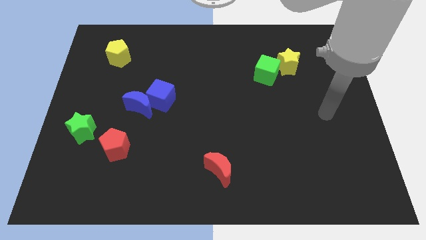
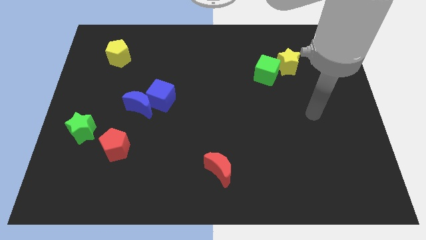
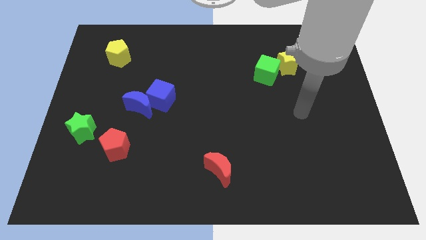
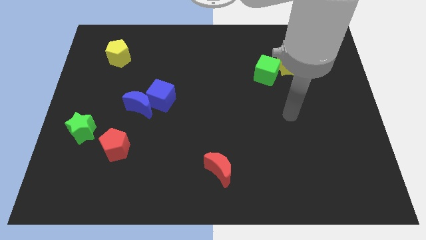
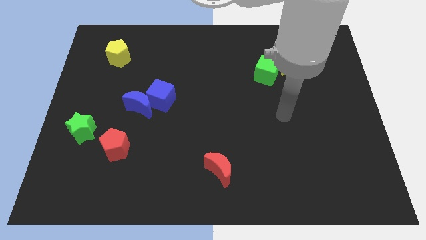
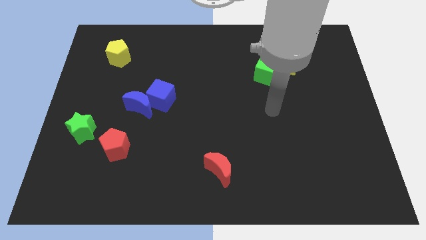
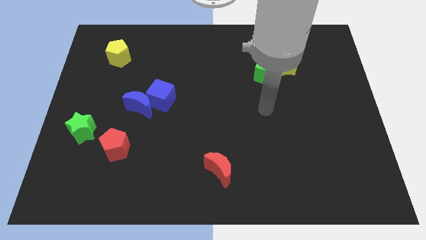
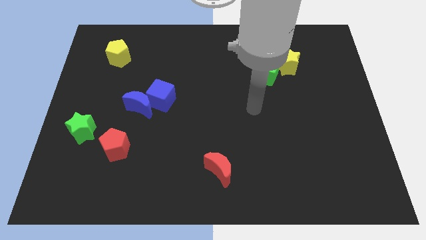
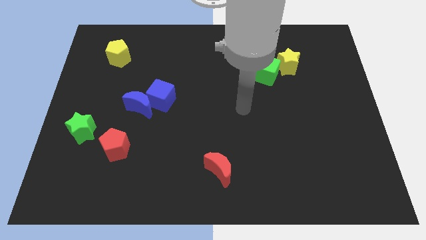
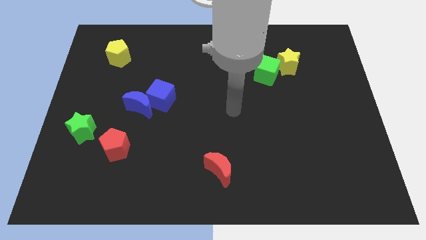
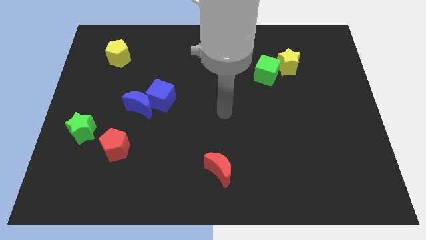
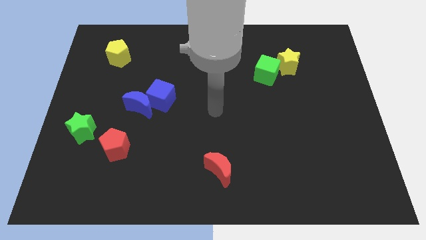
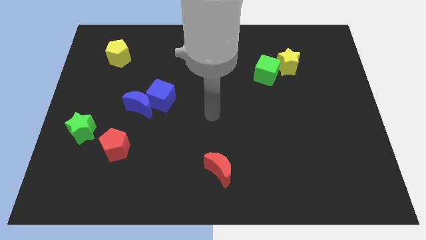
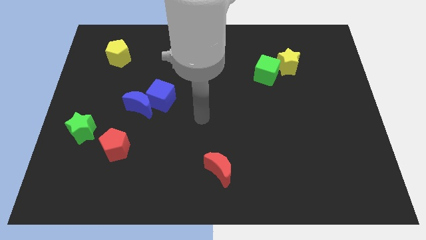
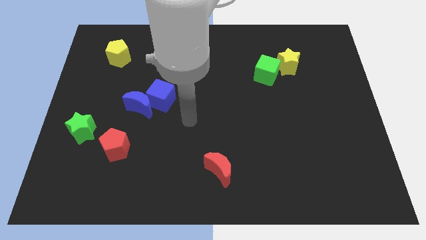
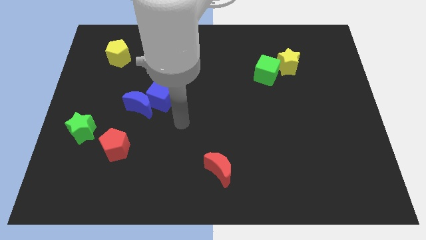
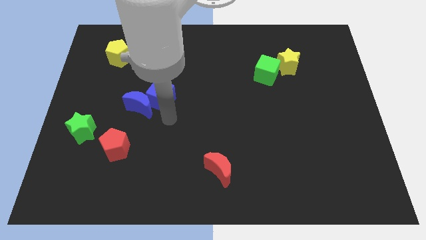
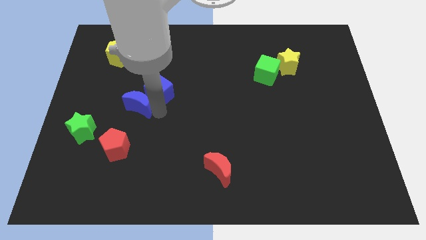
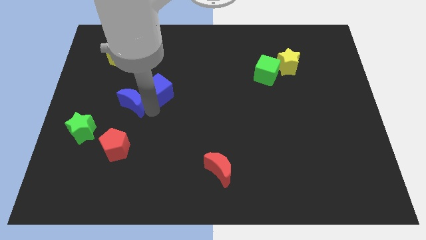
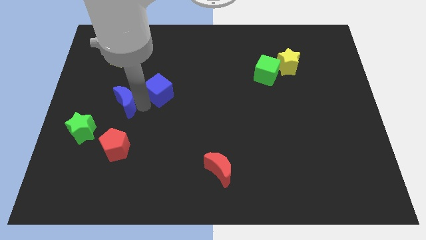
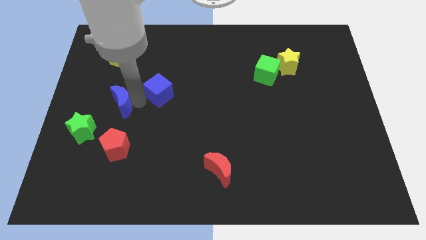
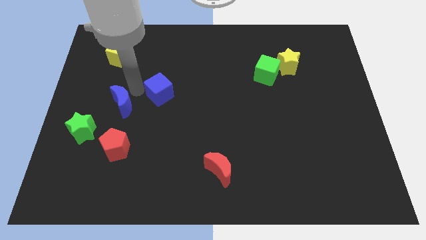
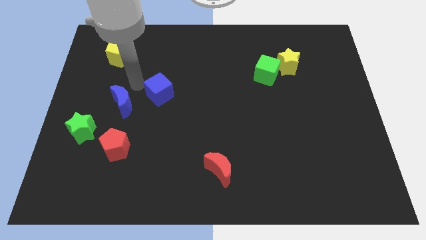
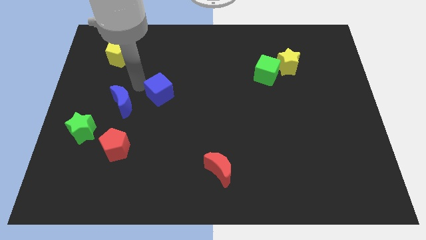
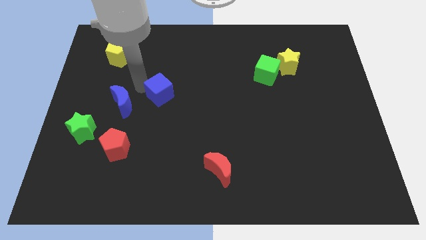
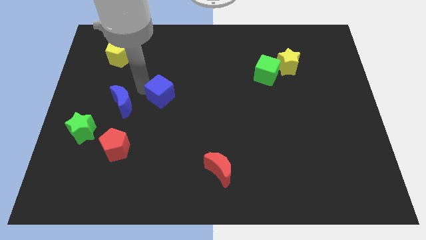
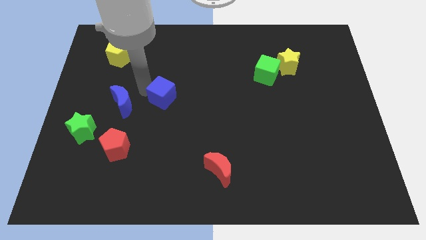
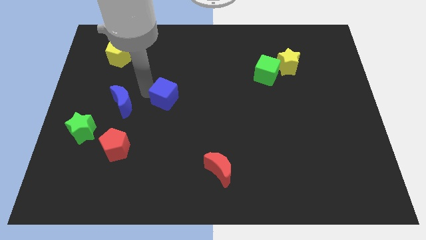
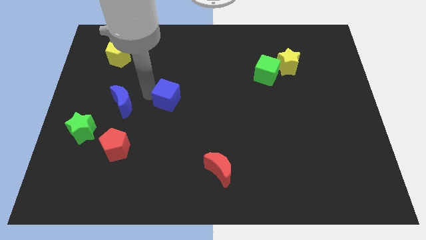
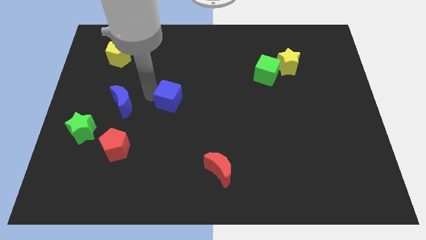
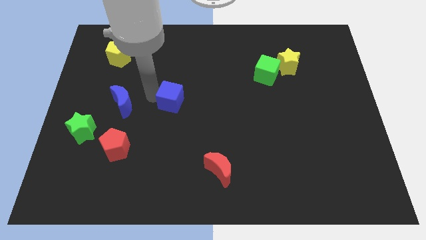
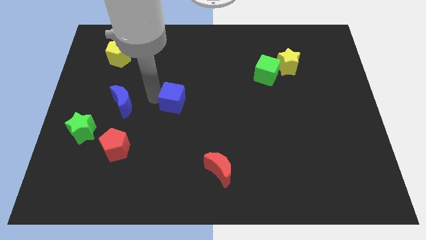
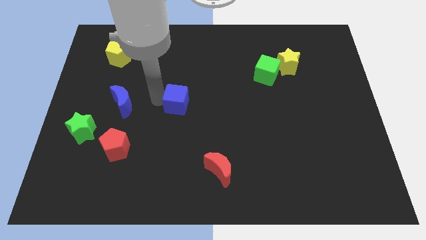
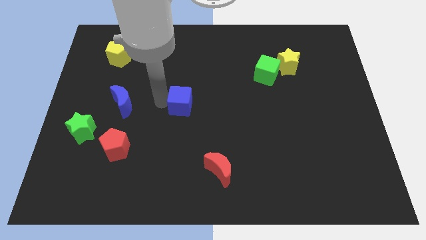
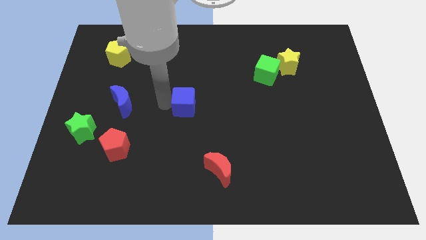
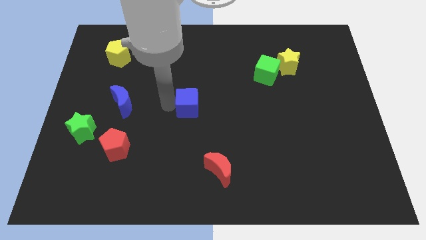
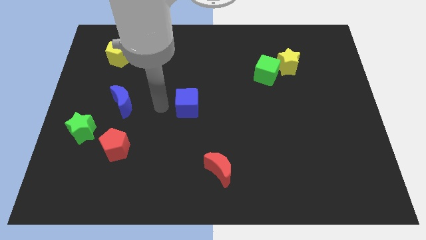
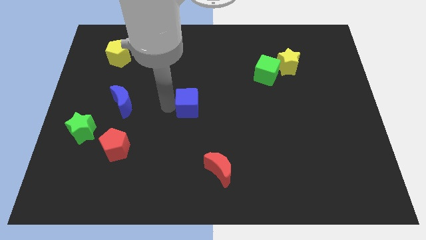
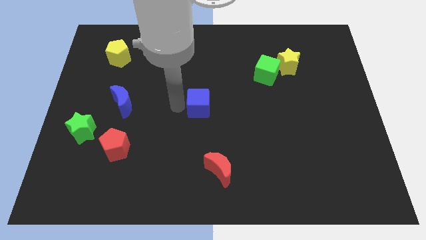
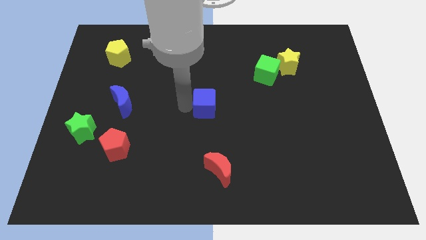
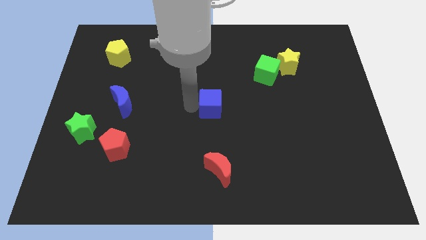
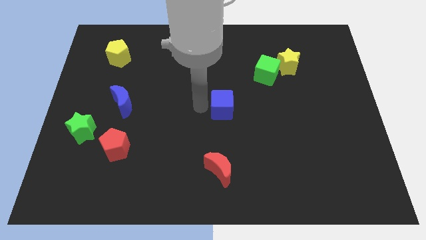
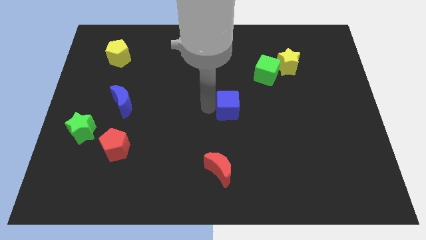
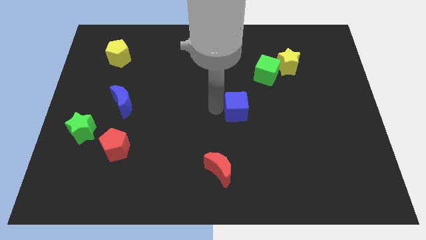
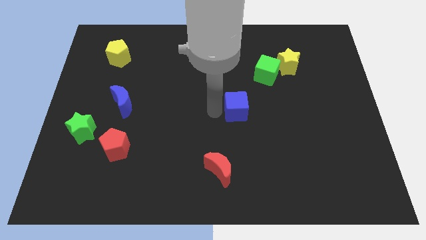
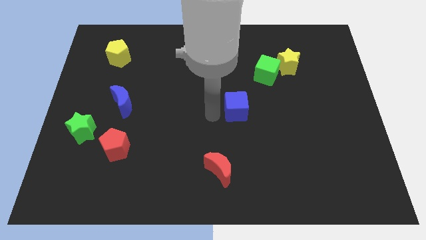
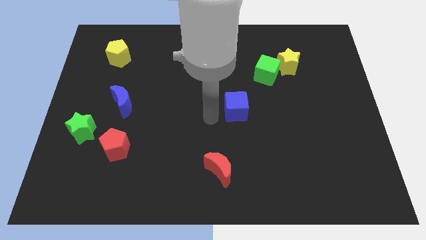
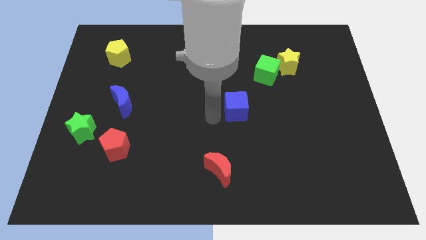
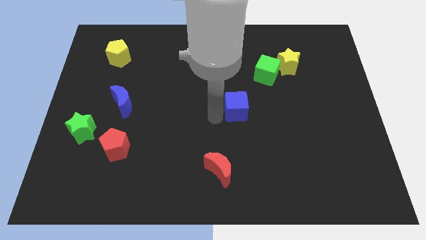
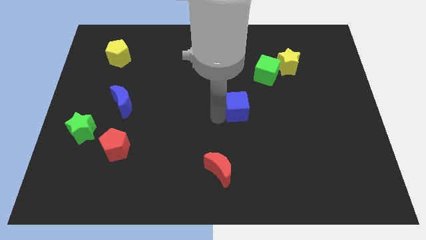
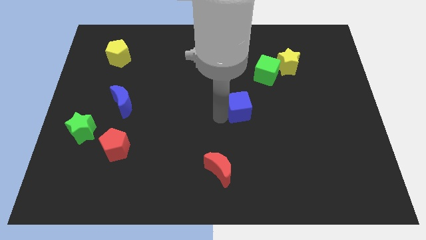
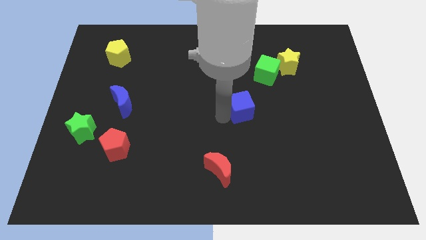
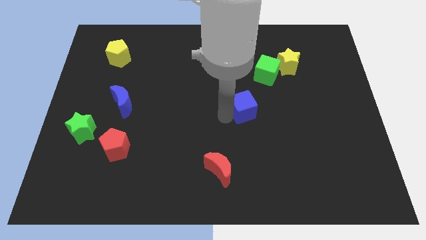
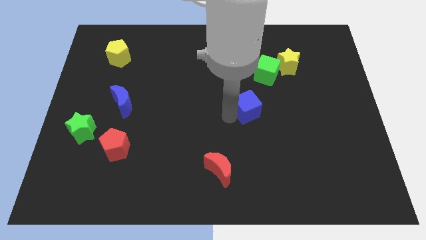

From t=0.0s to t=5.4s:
slide the blue cube right

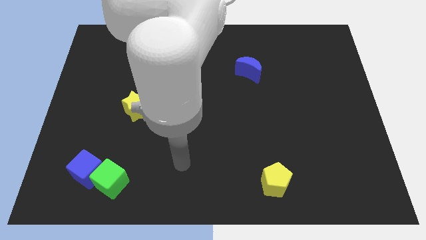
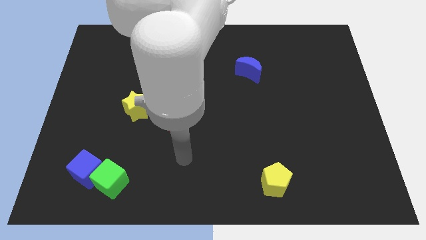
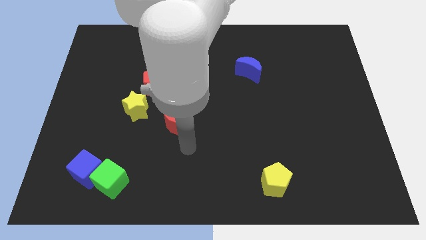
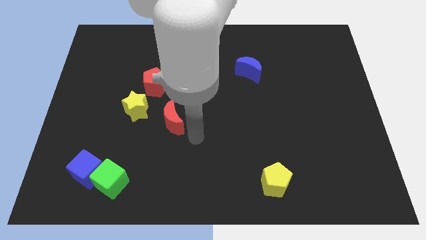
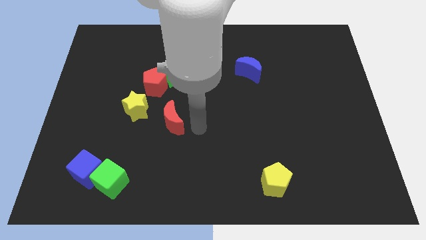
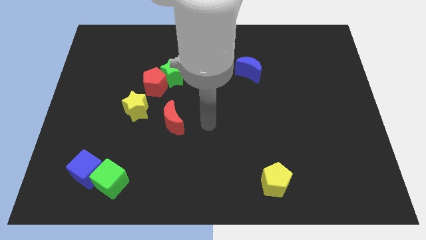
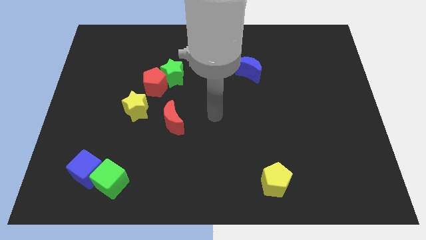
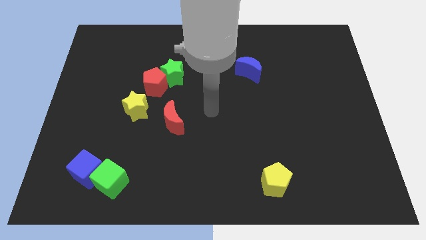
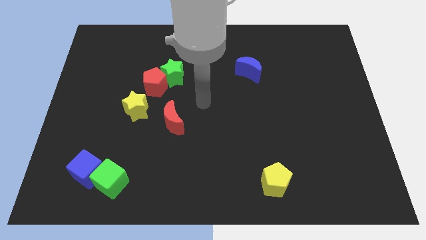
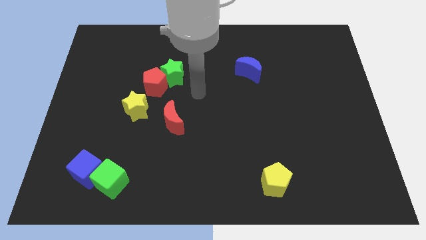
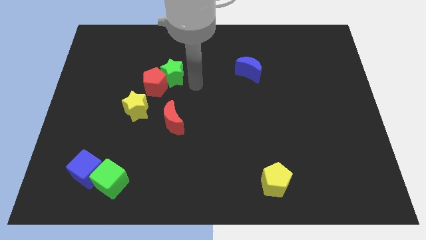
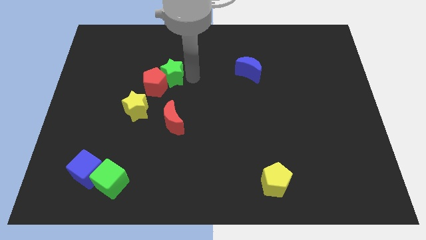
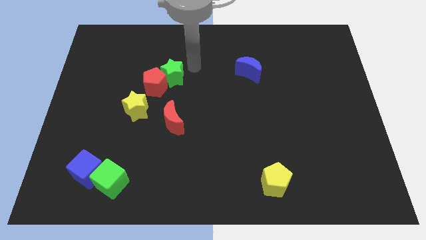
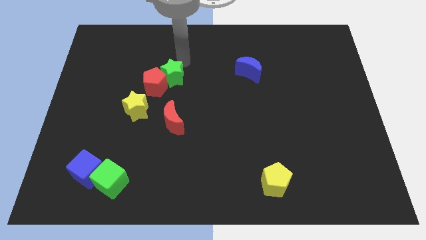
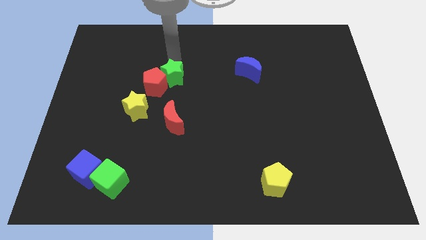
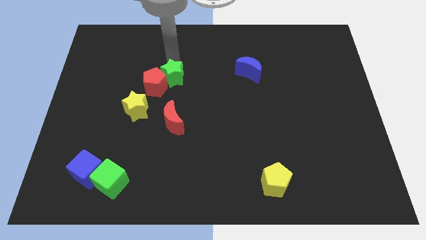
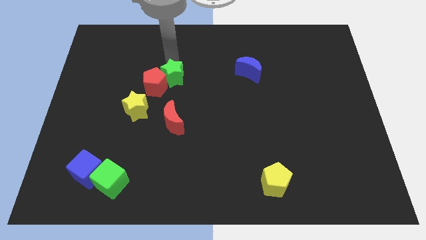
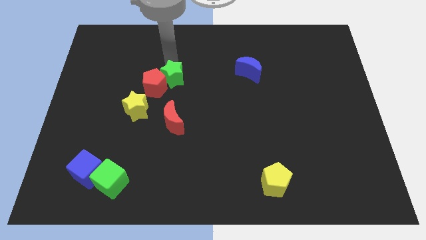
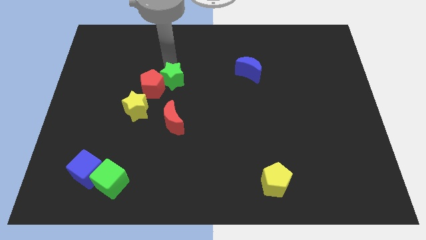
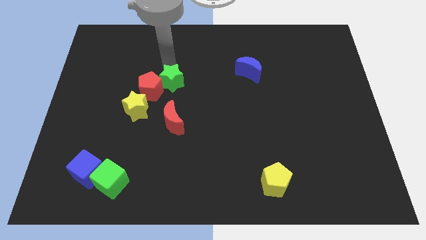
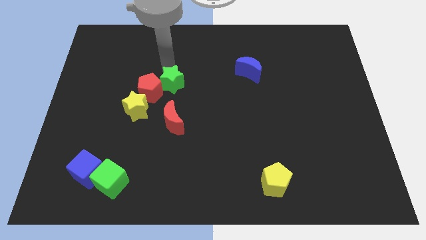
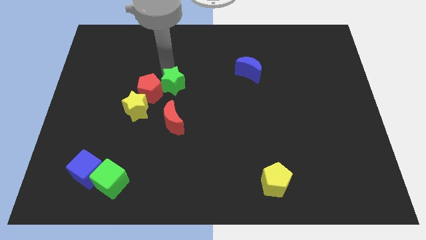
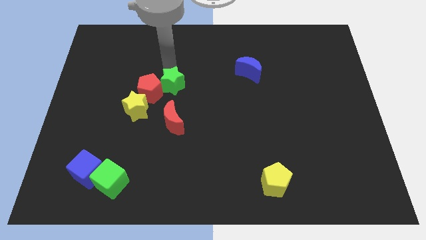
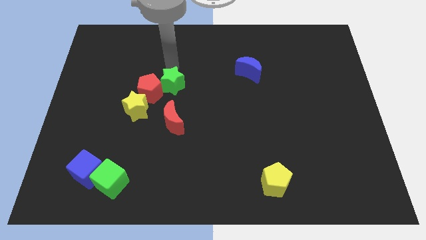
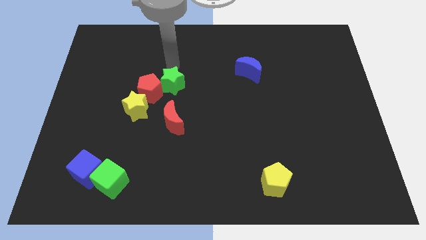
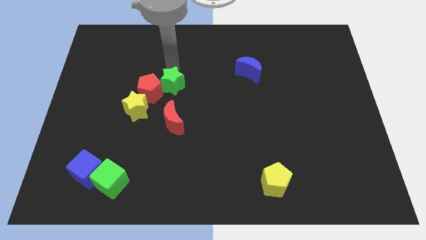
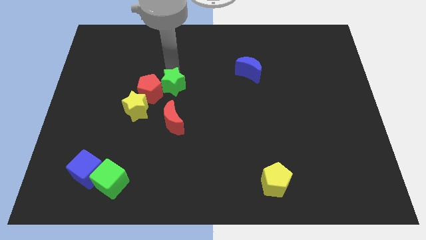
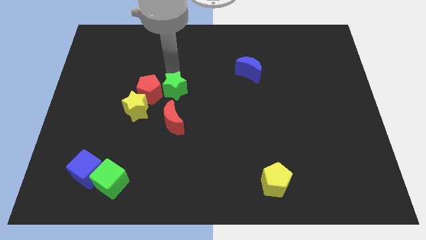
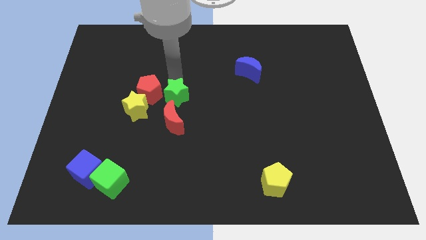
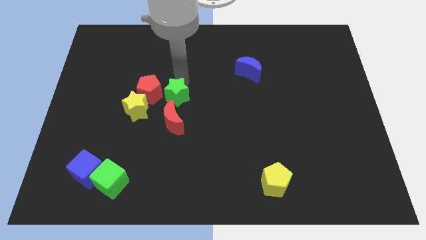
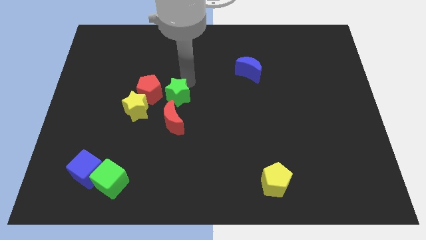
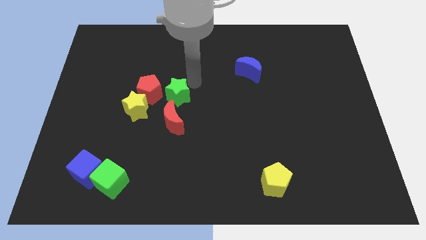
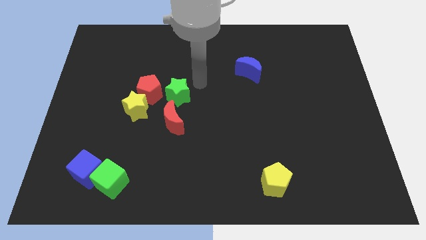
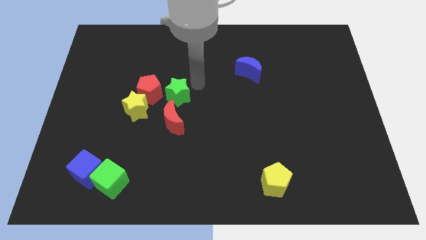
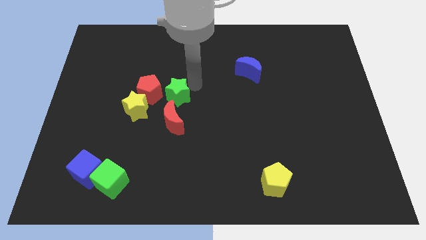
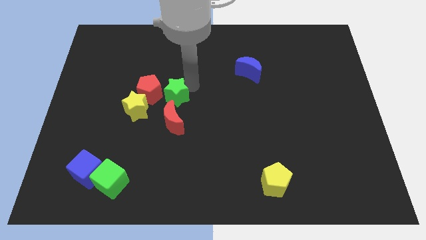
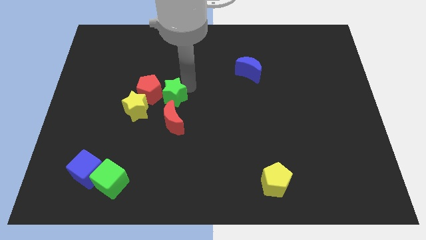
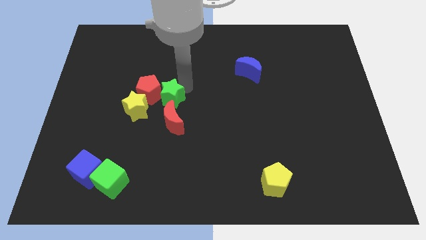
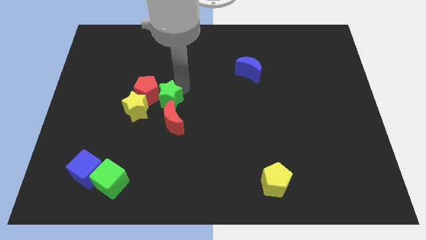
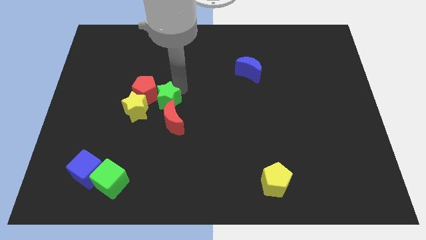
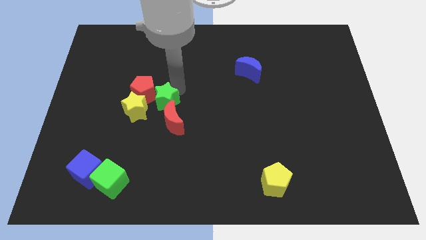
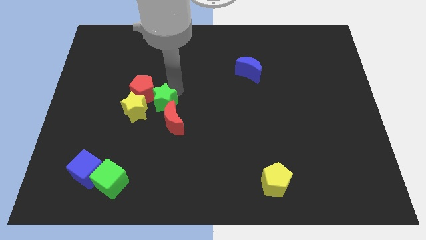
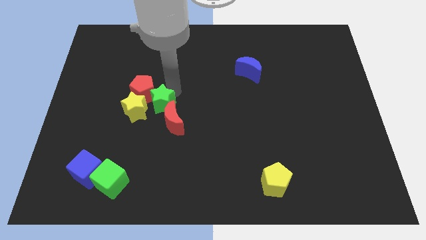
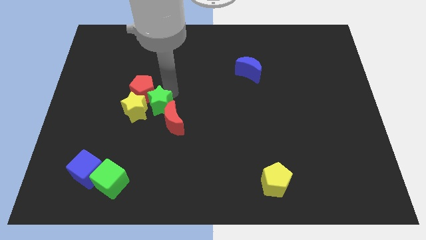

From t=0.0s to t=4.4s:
slightly slide the green star downwards and to the left
